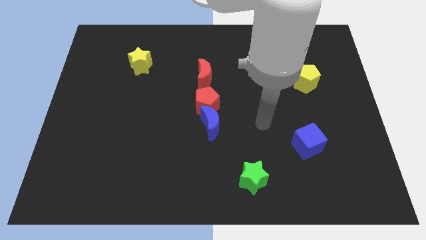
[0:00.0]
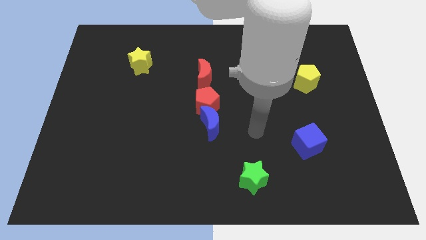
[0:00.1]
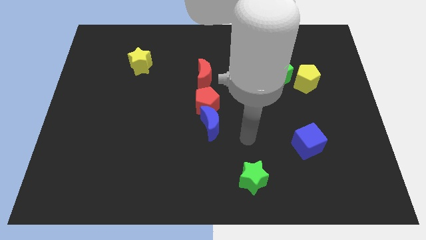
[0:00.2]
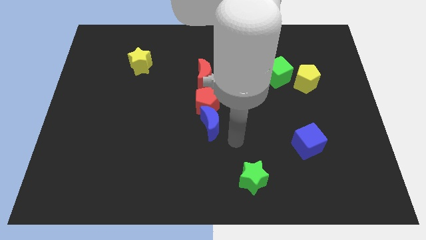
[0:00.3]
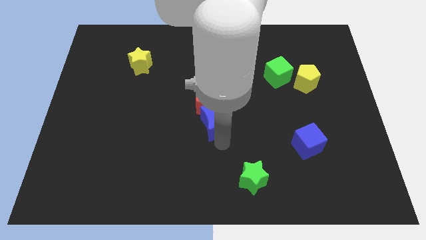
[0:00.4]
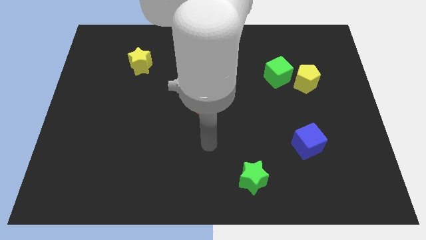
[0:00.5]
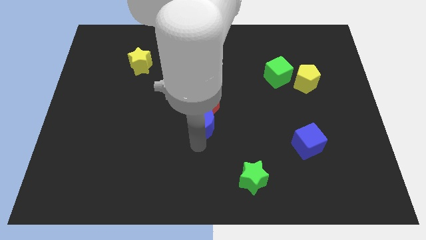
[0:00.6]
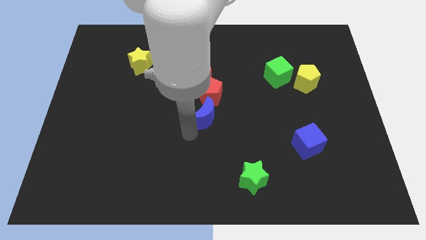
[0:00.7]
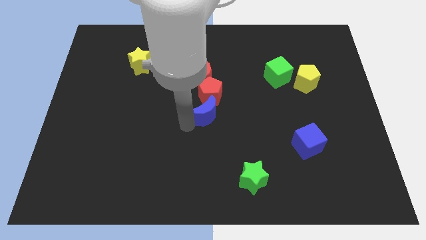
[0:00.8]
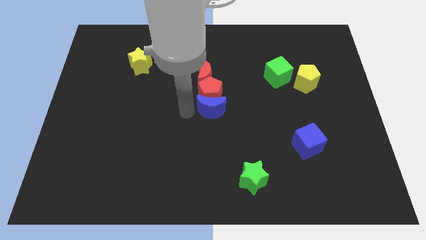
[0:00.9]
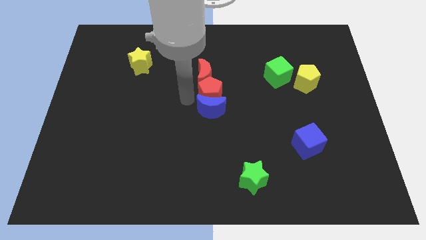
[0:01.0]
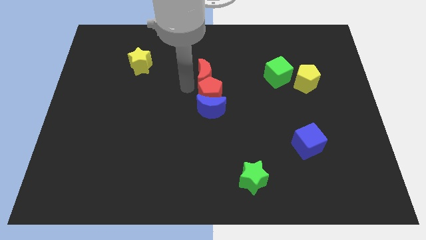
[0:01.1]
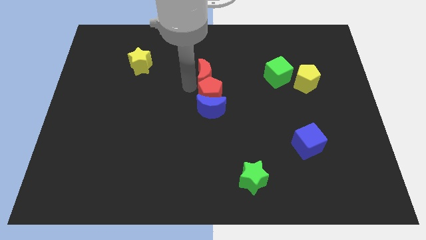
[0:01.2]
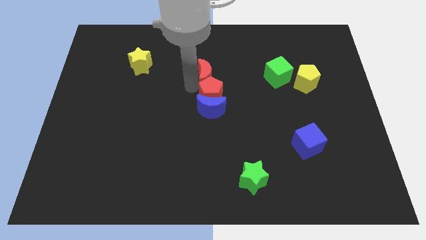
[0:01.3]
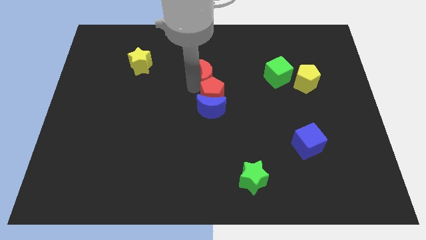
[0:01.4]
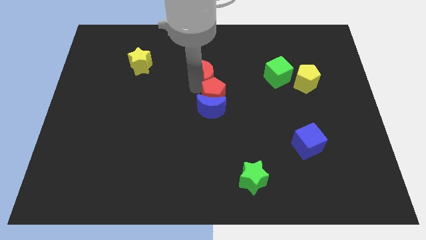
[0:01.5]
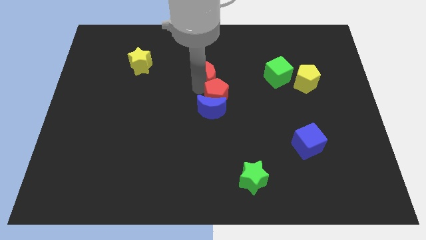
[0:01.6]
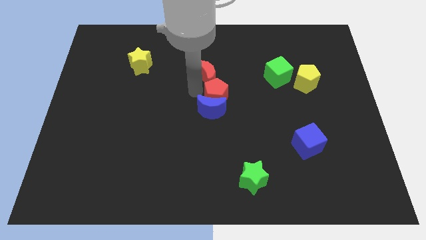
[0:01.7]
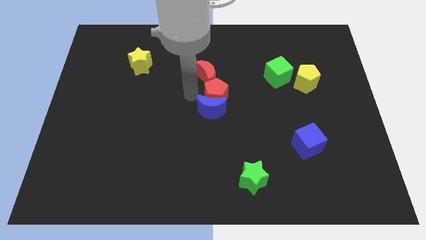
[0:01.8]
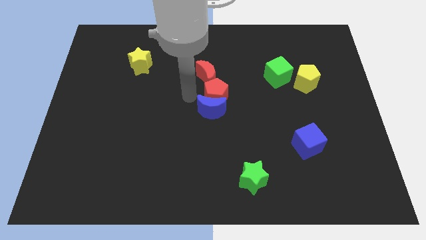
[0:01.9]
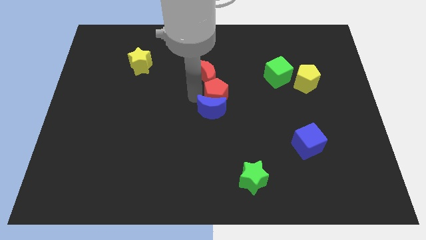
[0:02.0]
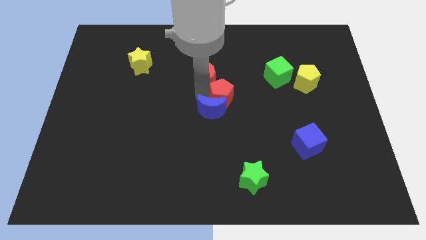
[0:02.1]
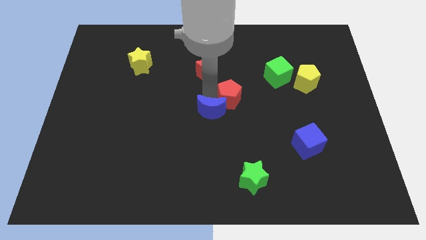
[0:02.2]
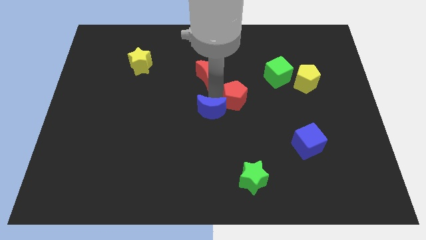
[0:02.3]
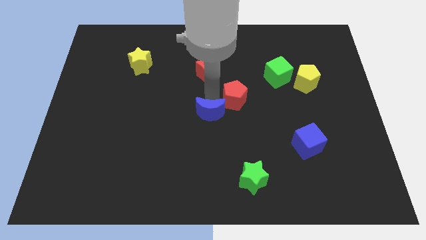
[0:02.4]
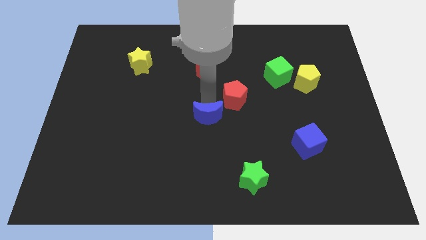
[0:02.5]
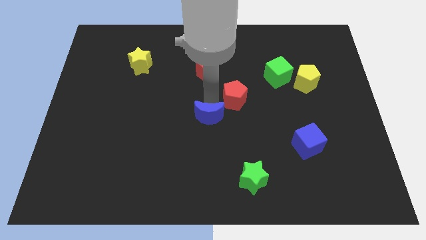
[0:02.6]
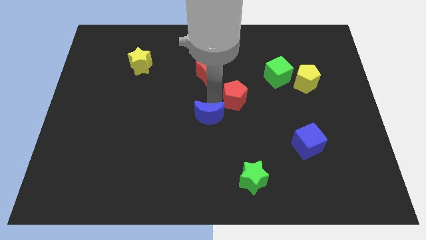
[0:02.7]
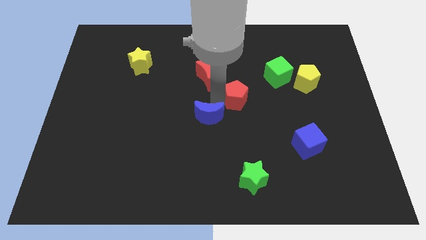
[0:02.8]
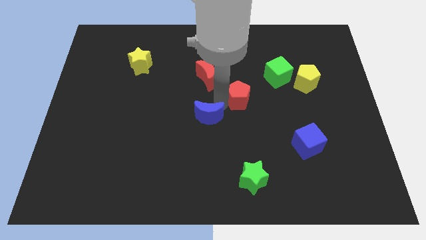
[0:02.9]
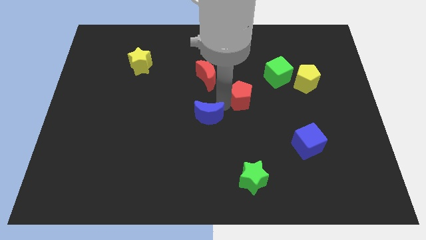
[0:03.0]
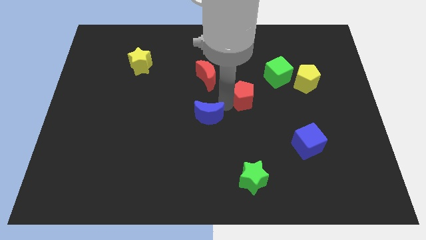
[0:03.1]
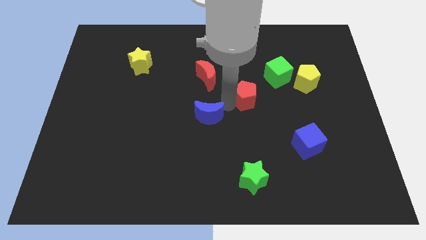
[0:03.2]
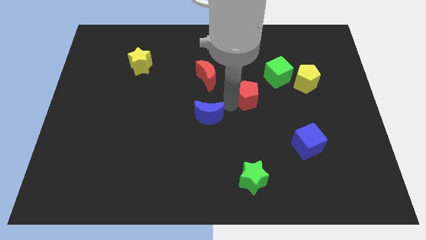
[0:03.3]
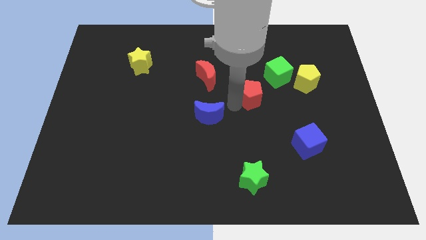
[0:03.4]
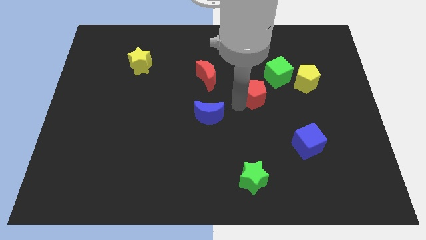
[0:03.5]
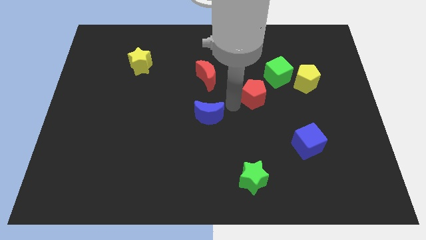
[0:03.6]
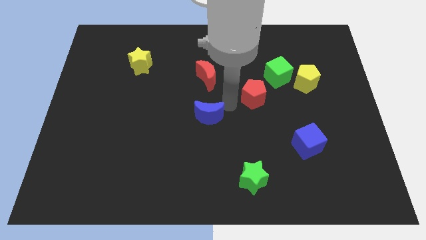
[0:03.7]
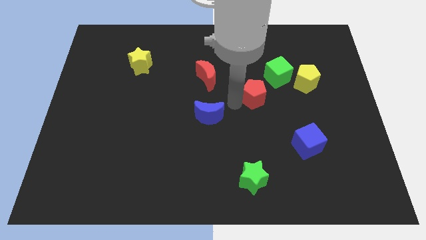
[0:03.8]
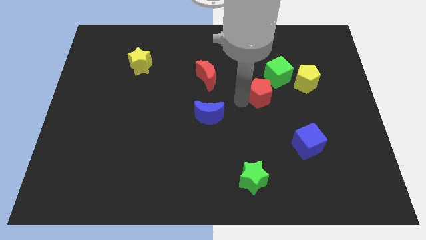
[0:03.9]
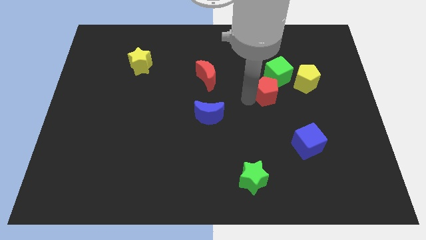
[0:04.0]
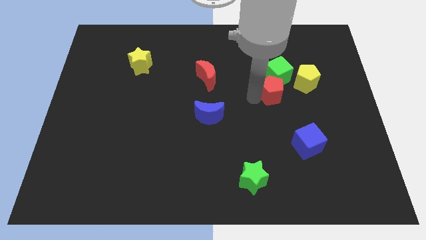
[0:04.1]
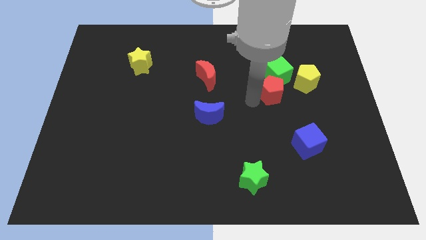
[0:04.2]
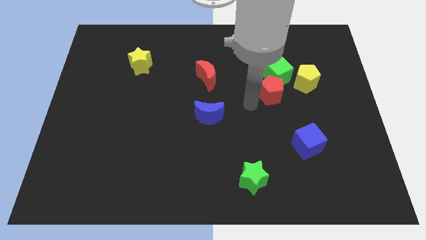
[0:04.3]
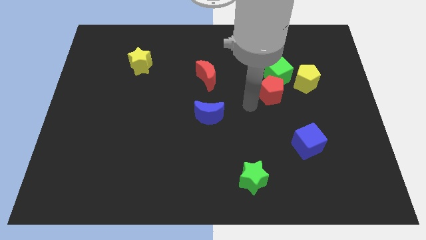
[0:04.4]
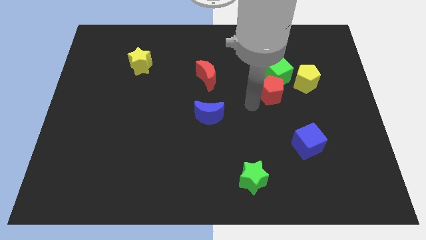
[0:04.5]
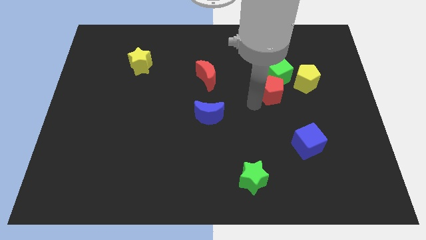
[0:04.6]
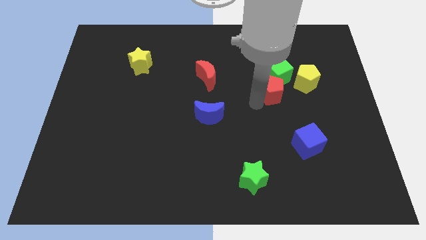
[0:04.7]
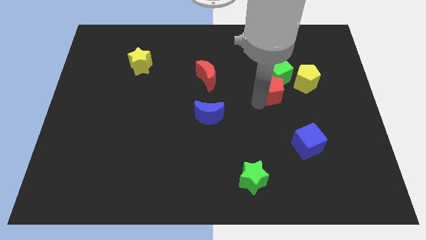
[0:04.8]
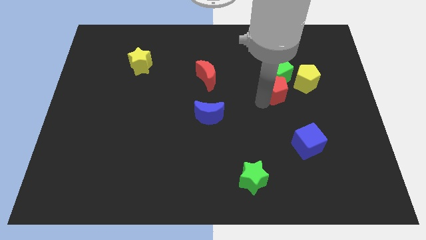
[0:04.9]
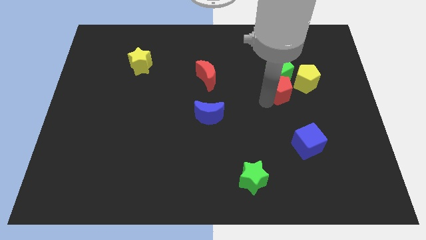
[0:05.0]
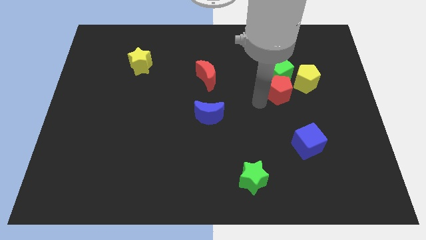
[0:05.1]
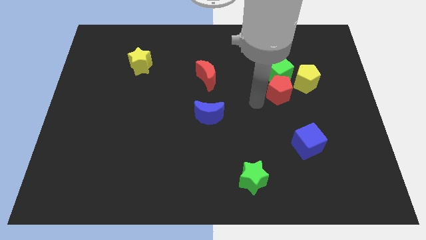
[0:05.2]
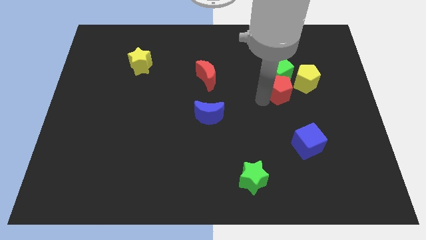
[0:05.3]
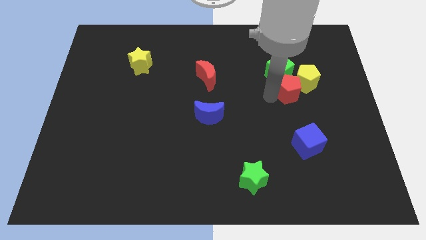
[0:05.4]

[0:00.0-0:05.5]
slide the red pentagon to the yellow pentagon
